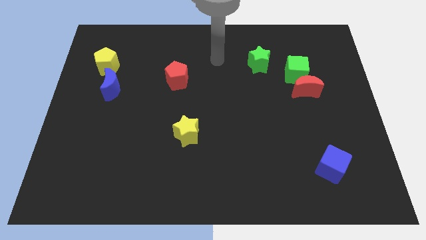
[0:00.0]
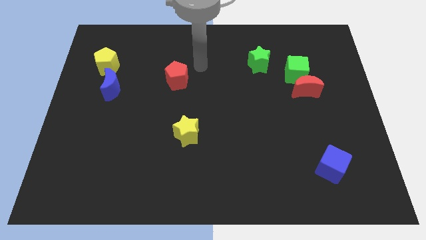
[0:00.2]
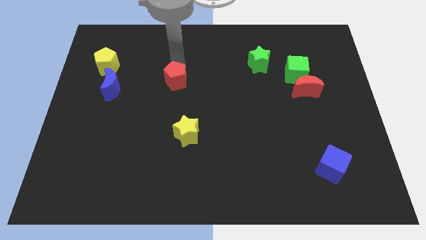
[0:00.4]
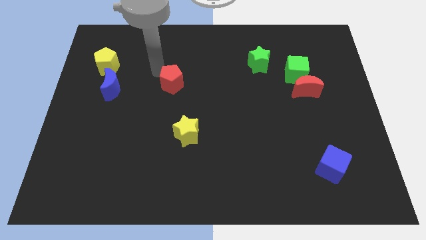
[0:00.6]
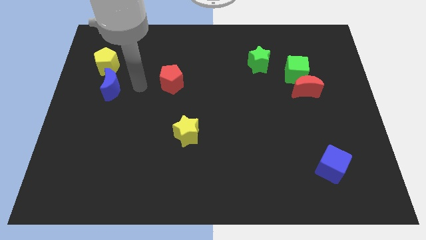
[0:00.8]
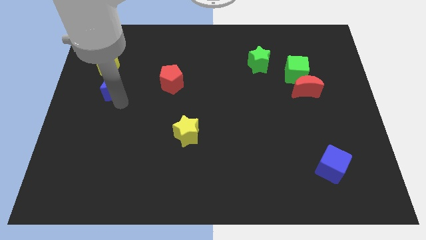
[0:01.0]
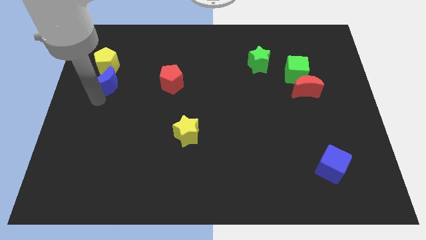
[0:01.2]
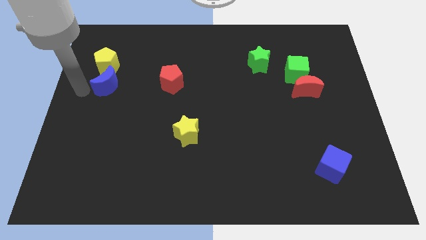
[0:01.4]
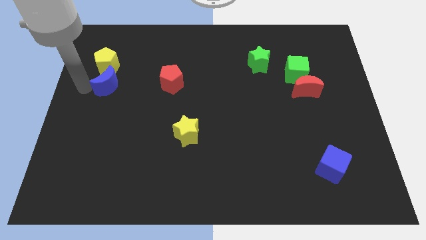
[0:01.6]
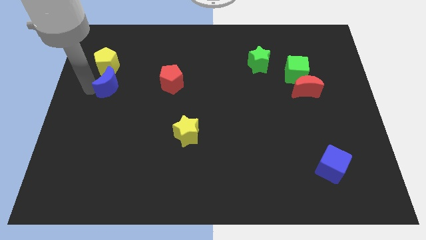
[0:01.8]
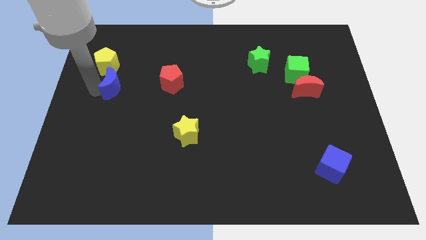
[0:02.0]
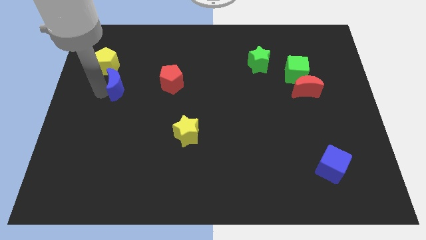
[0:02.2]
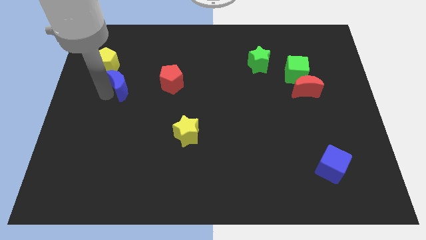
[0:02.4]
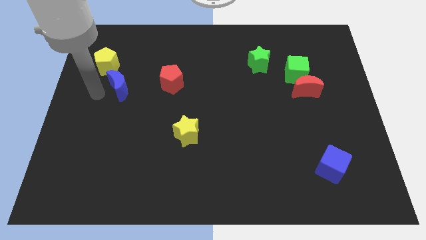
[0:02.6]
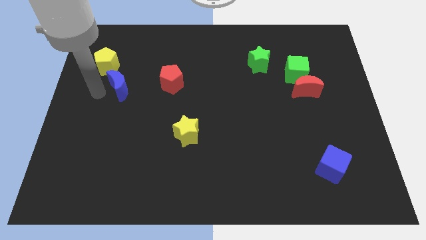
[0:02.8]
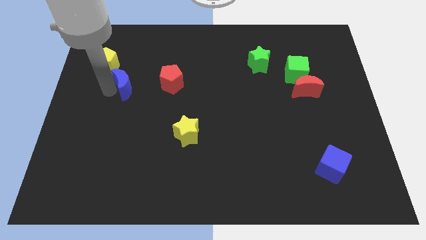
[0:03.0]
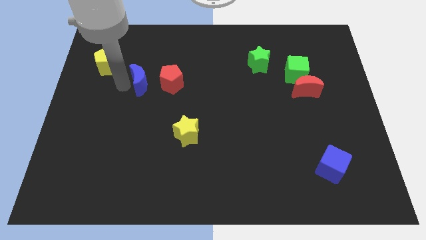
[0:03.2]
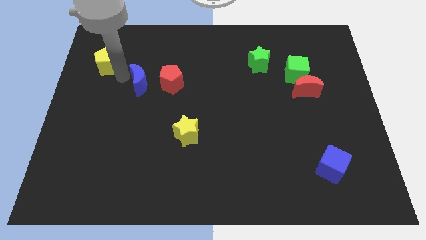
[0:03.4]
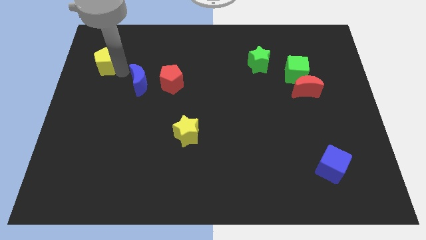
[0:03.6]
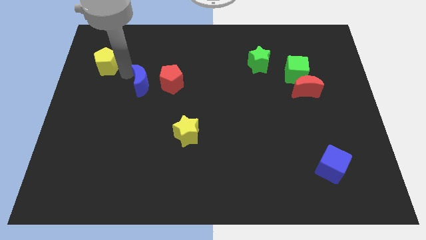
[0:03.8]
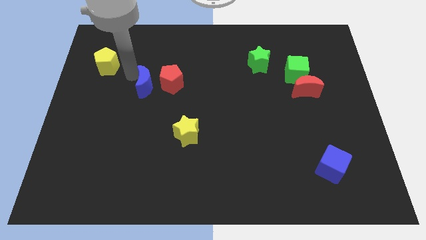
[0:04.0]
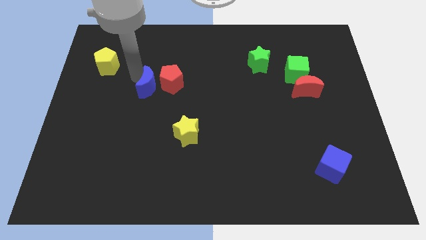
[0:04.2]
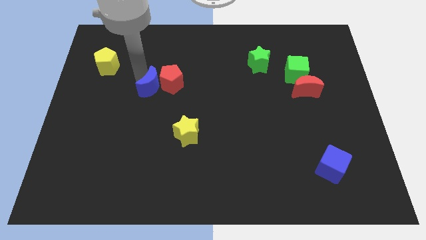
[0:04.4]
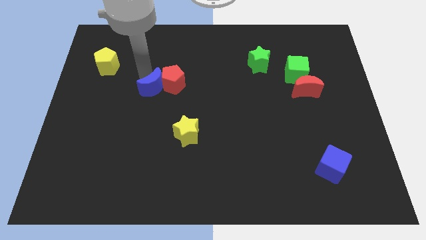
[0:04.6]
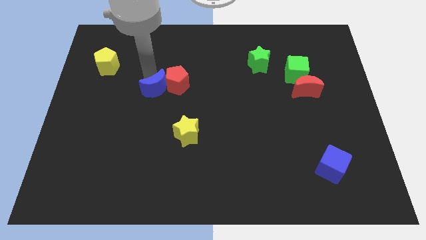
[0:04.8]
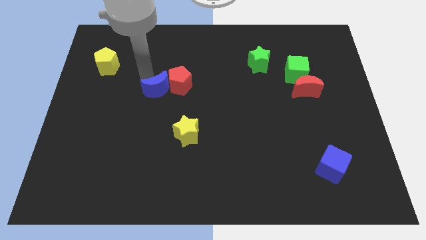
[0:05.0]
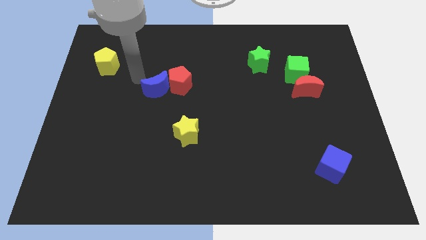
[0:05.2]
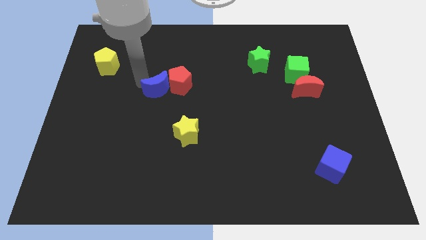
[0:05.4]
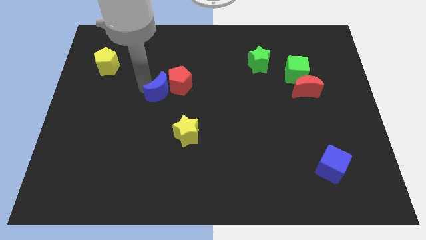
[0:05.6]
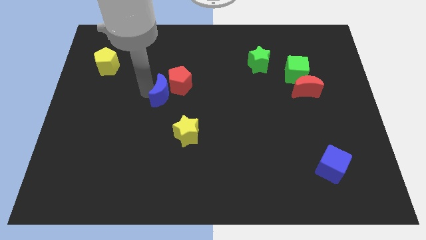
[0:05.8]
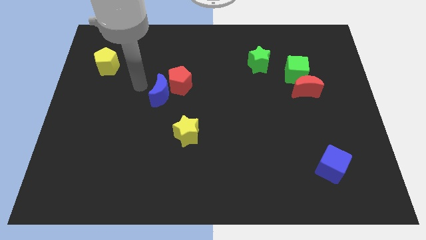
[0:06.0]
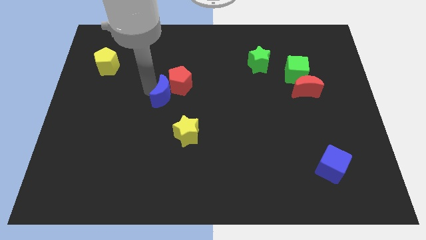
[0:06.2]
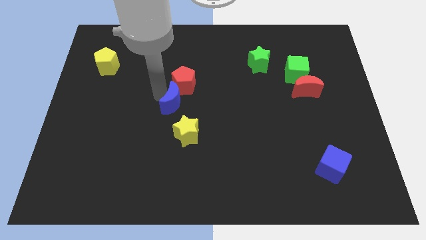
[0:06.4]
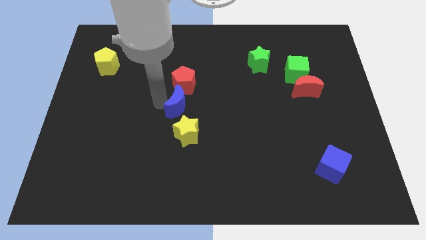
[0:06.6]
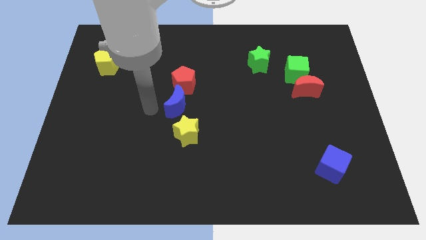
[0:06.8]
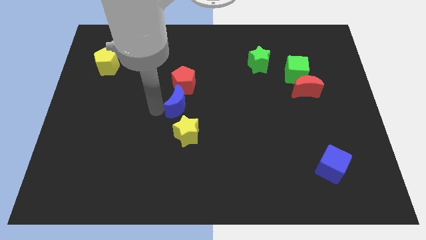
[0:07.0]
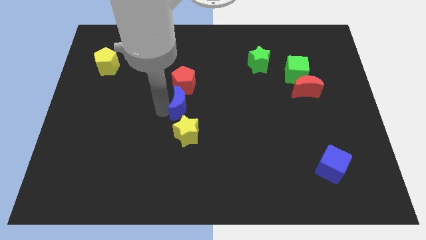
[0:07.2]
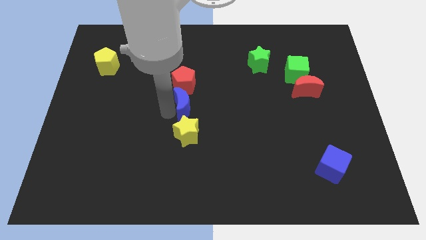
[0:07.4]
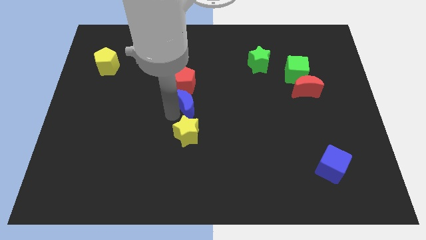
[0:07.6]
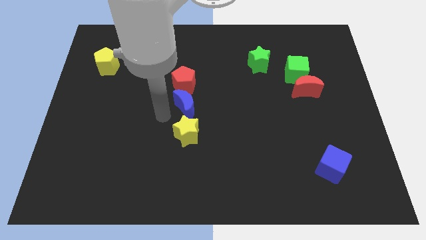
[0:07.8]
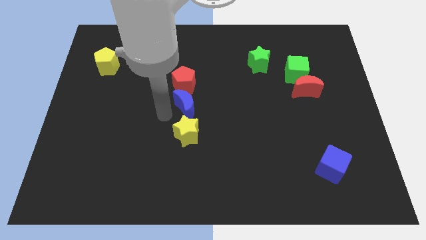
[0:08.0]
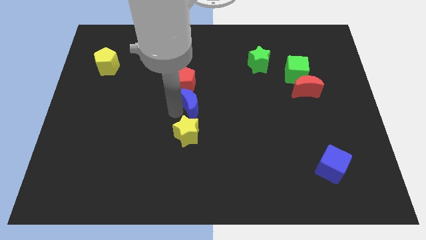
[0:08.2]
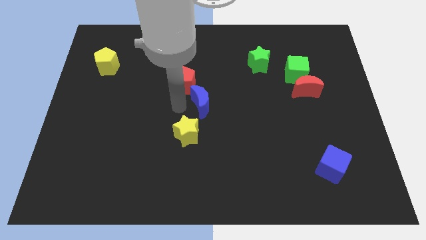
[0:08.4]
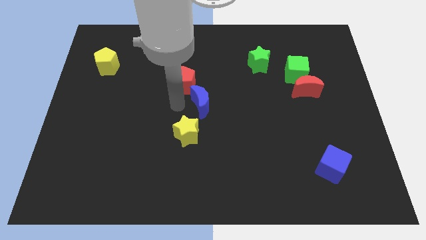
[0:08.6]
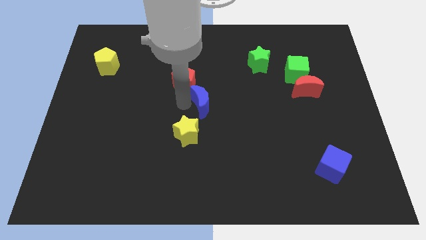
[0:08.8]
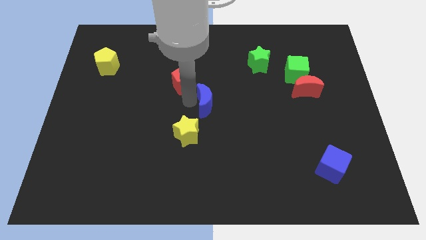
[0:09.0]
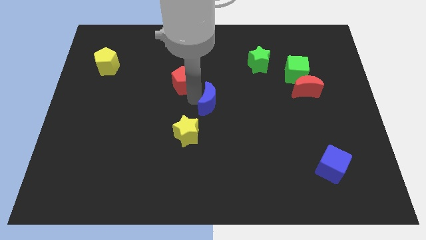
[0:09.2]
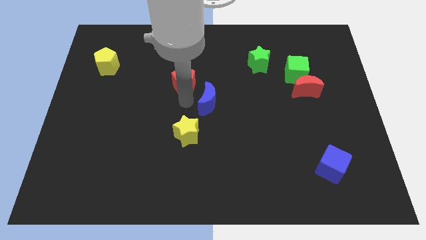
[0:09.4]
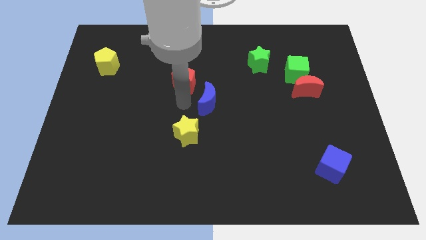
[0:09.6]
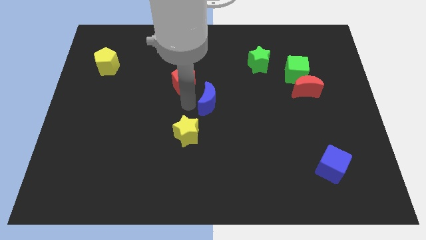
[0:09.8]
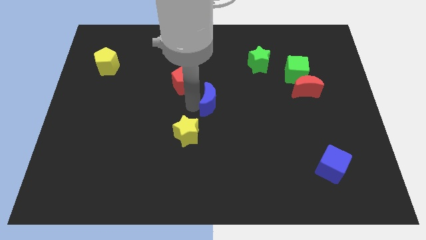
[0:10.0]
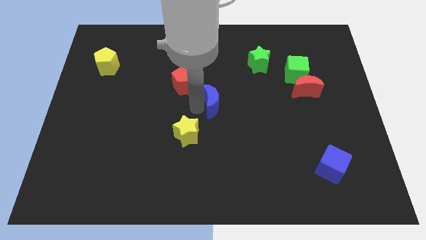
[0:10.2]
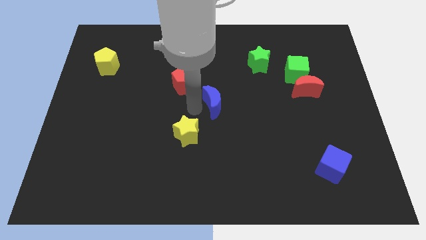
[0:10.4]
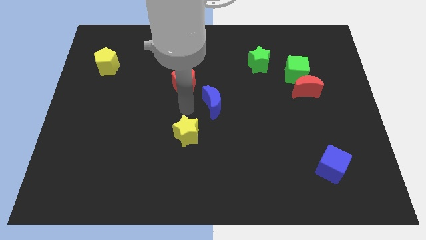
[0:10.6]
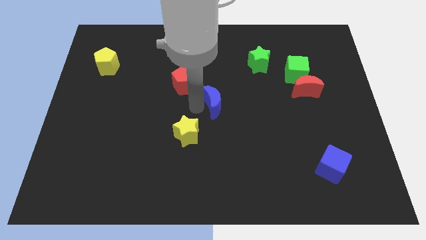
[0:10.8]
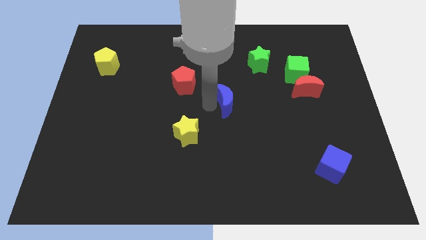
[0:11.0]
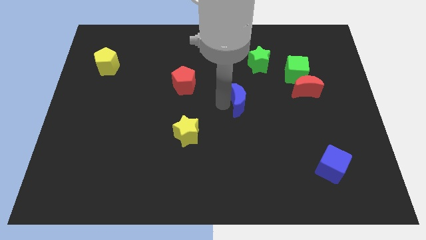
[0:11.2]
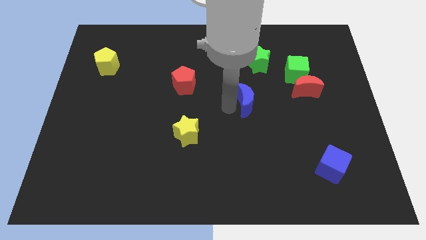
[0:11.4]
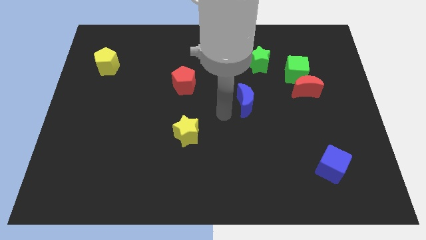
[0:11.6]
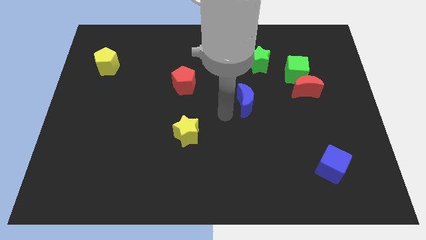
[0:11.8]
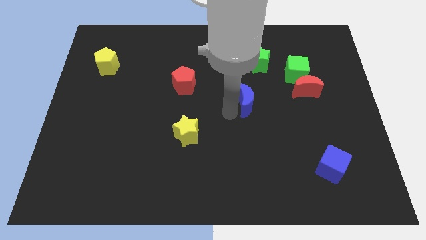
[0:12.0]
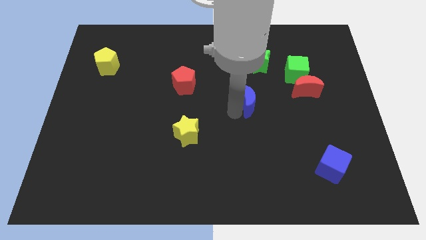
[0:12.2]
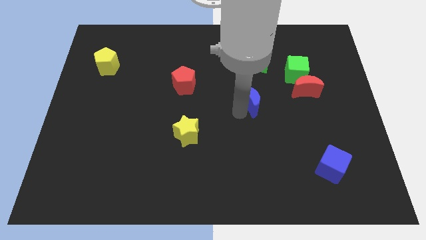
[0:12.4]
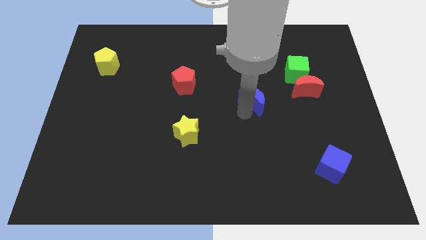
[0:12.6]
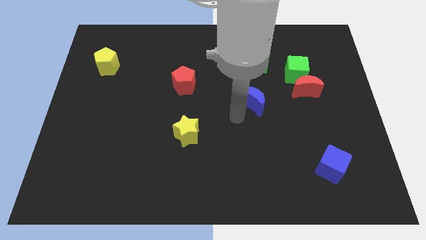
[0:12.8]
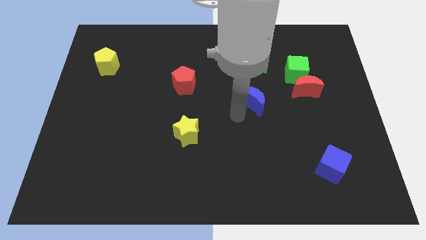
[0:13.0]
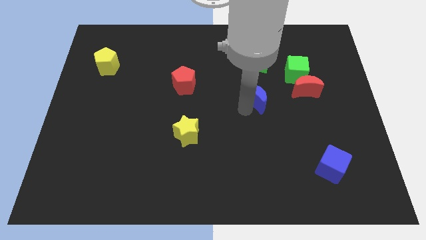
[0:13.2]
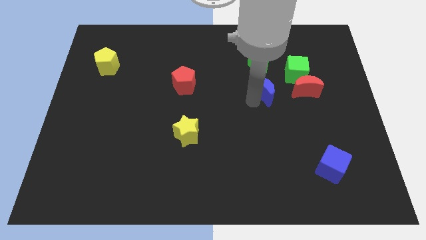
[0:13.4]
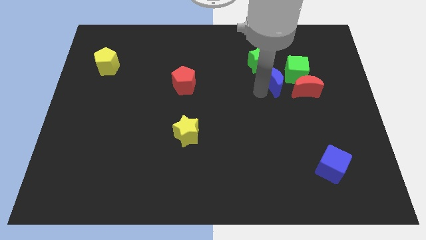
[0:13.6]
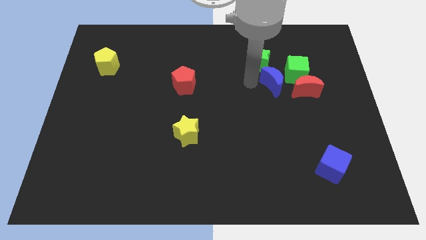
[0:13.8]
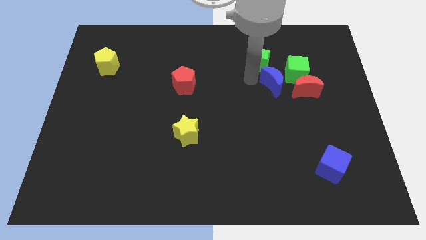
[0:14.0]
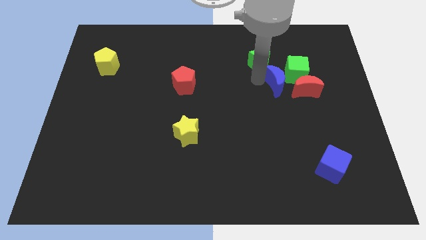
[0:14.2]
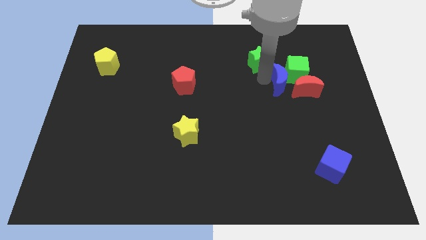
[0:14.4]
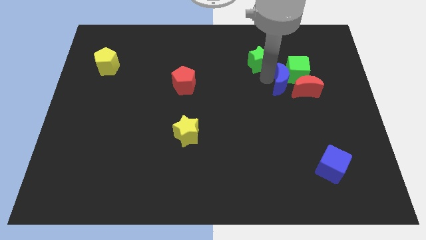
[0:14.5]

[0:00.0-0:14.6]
move the blue moon next to the red moon

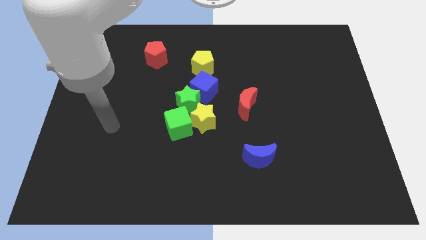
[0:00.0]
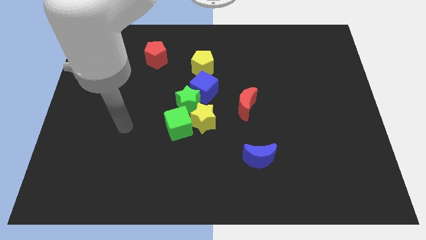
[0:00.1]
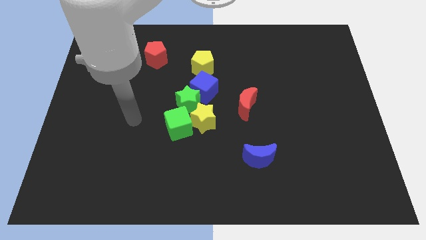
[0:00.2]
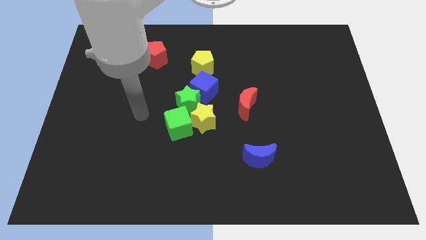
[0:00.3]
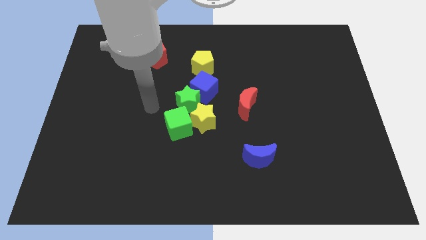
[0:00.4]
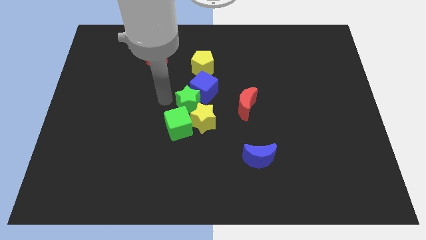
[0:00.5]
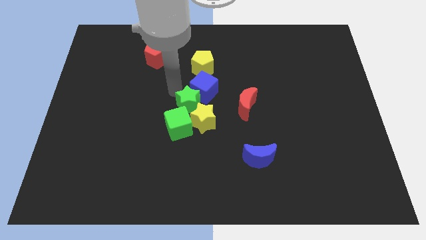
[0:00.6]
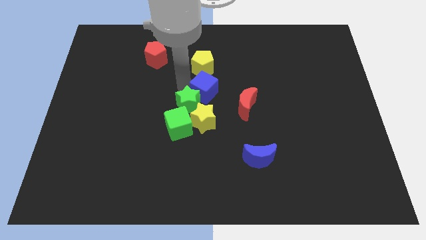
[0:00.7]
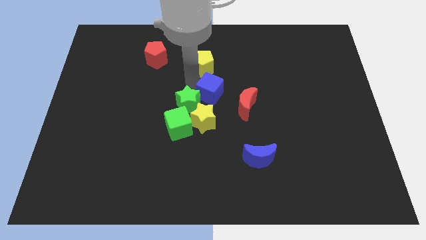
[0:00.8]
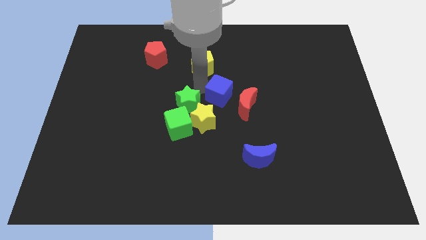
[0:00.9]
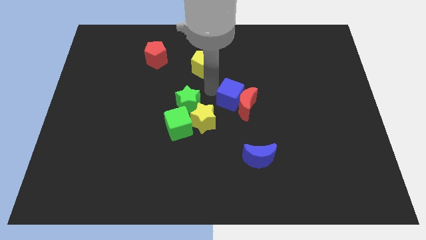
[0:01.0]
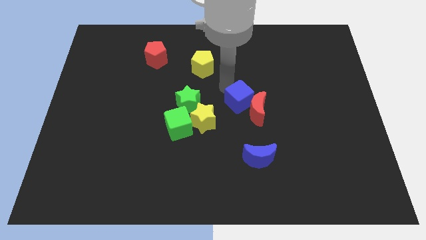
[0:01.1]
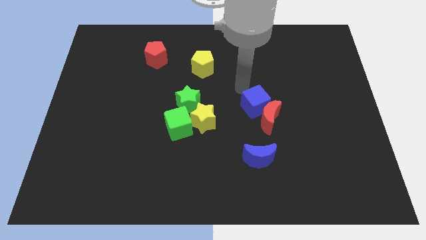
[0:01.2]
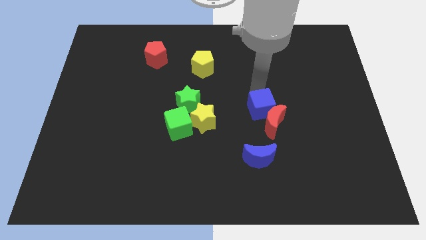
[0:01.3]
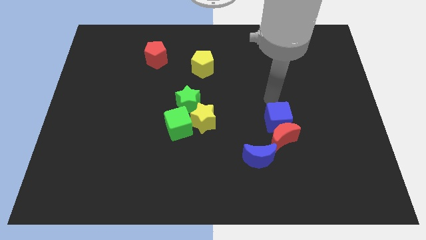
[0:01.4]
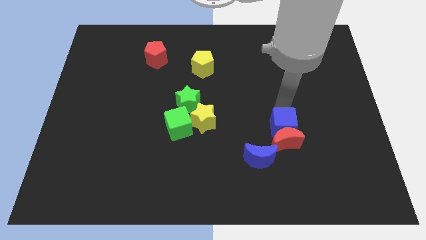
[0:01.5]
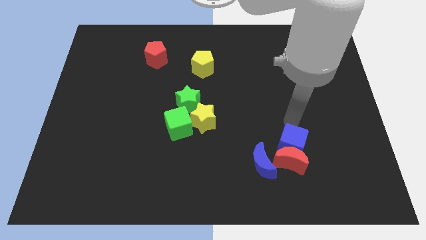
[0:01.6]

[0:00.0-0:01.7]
slide the red moon towards the blue moon
